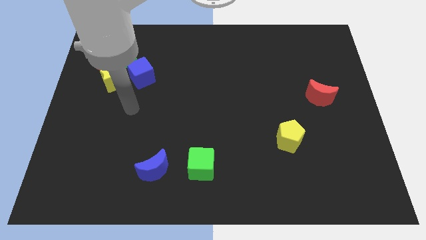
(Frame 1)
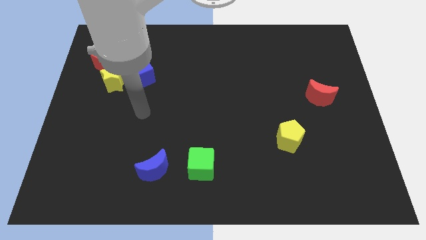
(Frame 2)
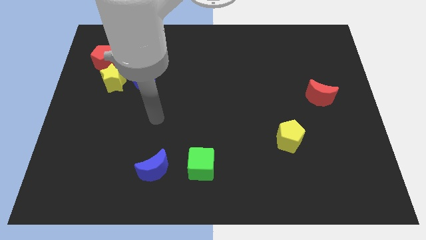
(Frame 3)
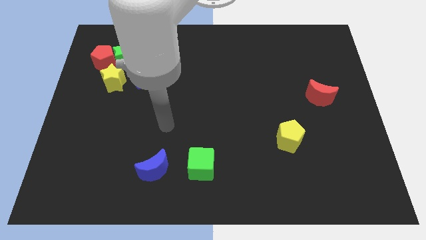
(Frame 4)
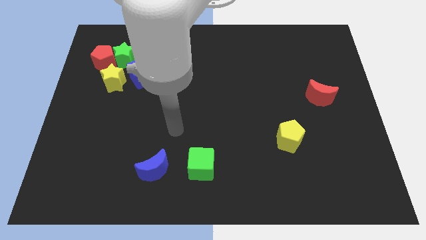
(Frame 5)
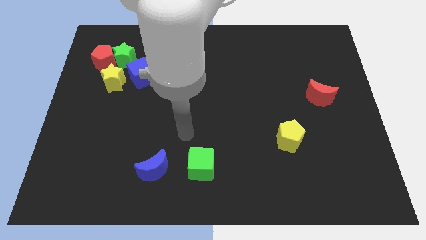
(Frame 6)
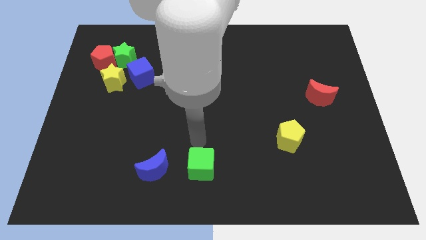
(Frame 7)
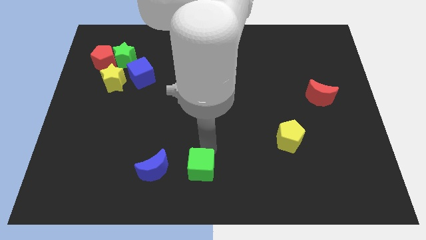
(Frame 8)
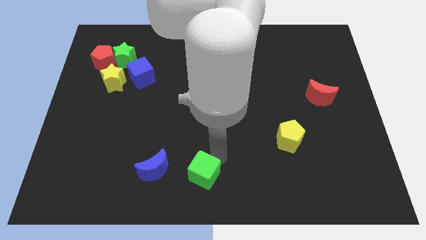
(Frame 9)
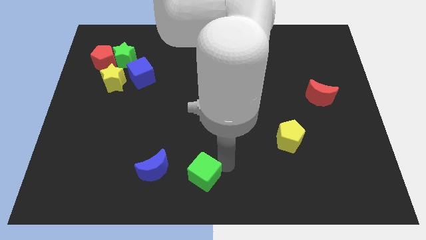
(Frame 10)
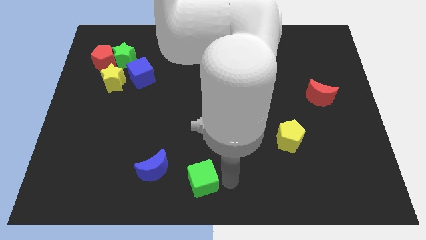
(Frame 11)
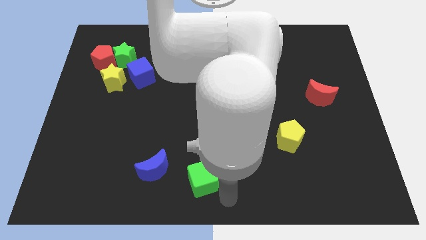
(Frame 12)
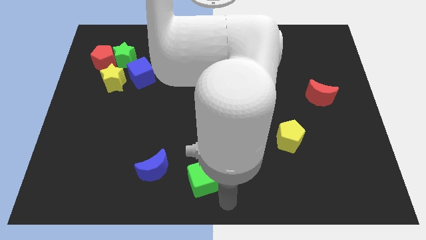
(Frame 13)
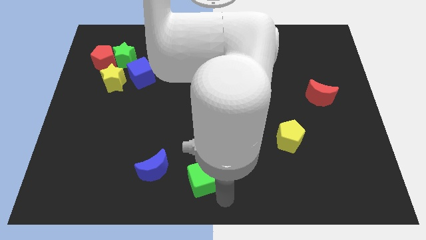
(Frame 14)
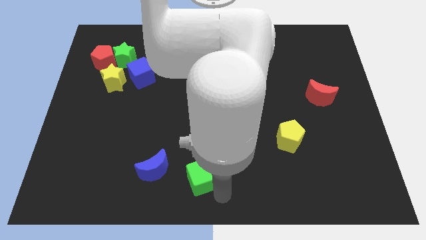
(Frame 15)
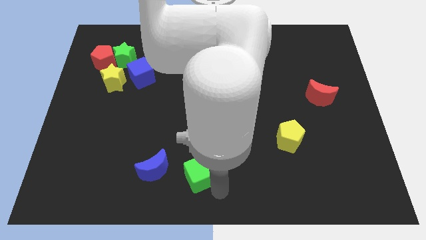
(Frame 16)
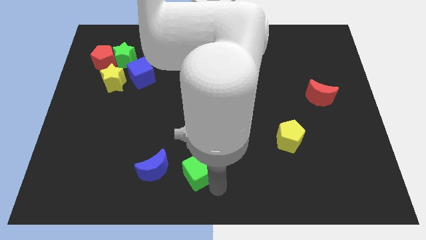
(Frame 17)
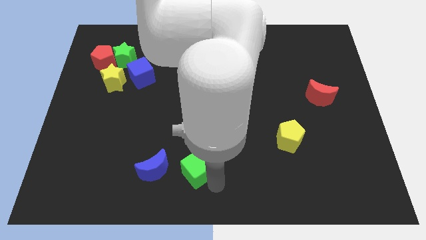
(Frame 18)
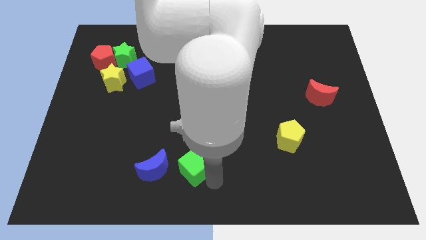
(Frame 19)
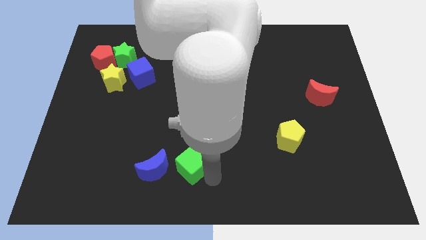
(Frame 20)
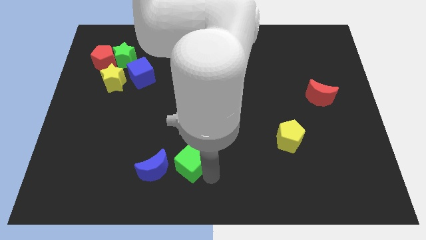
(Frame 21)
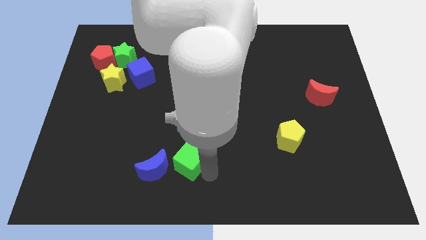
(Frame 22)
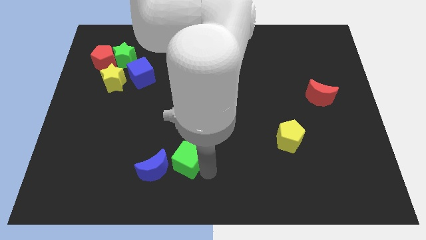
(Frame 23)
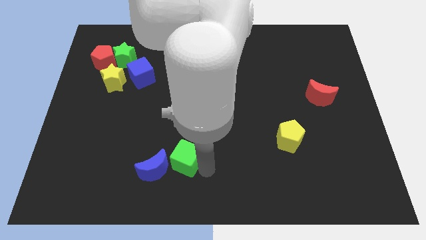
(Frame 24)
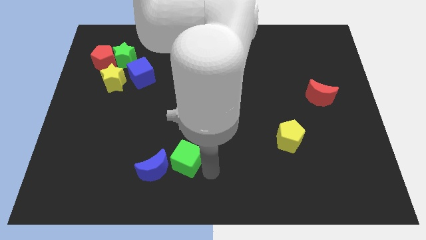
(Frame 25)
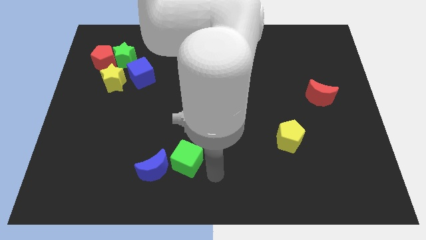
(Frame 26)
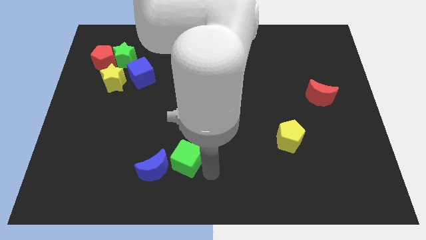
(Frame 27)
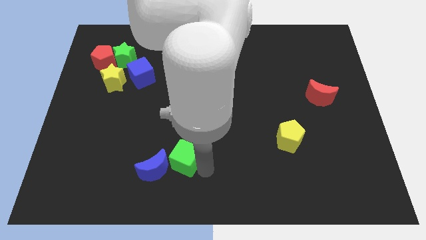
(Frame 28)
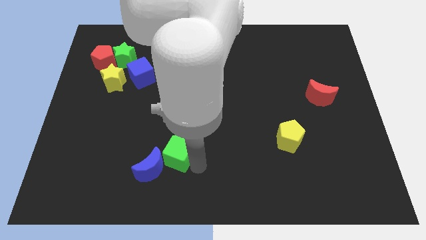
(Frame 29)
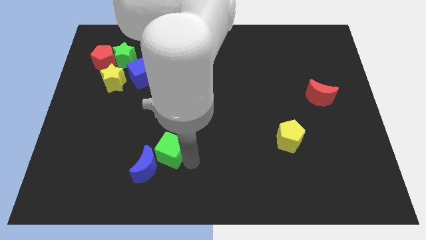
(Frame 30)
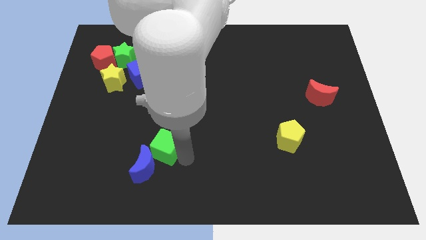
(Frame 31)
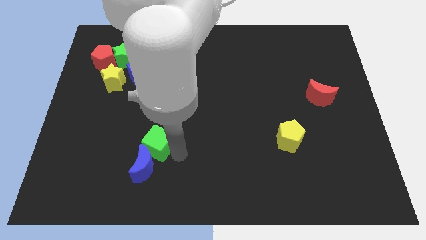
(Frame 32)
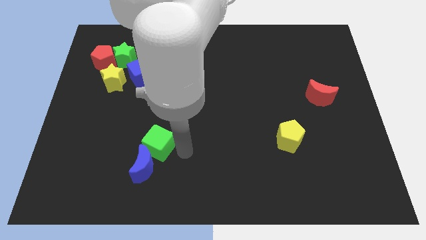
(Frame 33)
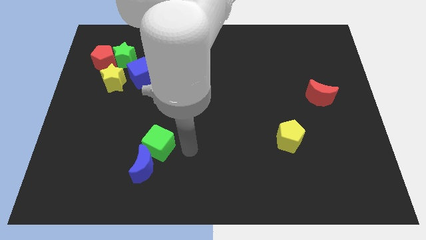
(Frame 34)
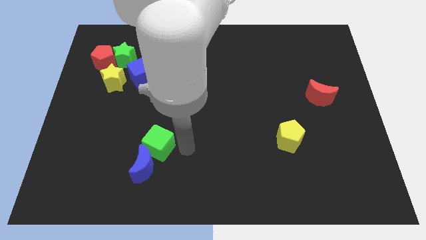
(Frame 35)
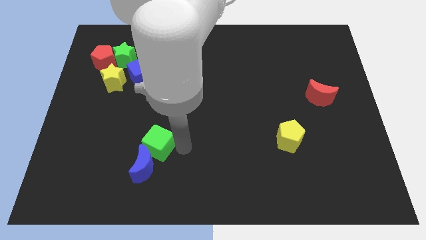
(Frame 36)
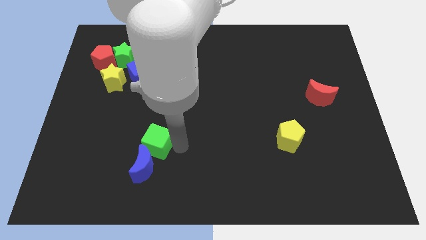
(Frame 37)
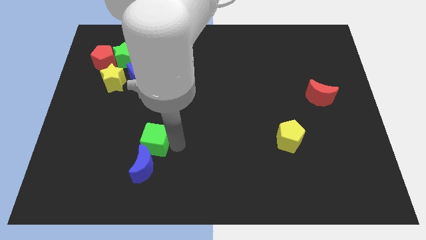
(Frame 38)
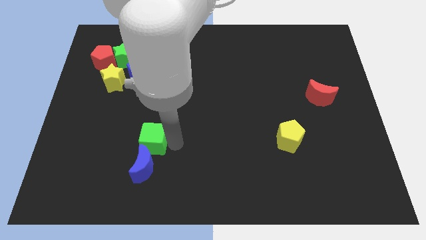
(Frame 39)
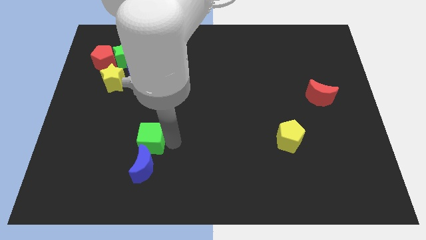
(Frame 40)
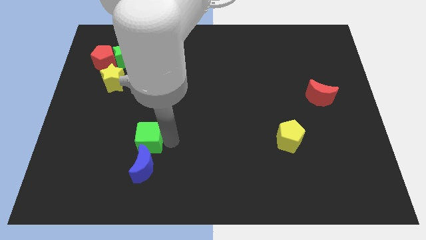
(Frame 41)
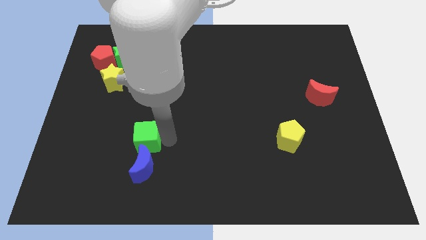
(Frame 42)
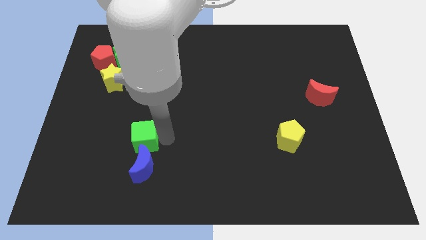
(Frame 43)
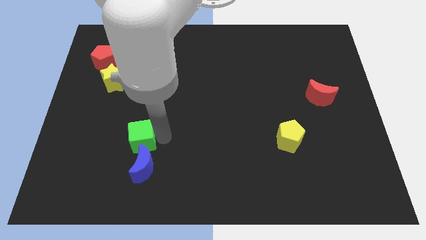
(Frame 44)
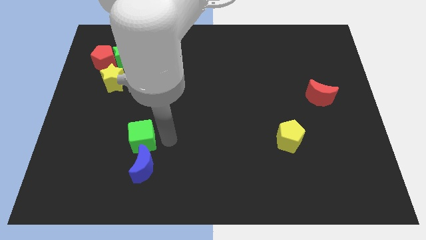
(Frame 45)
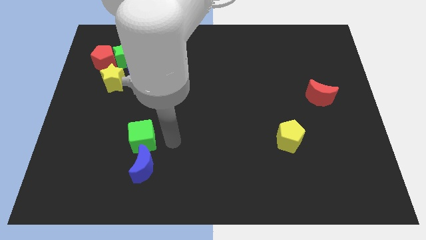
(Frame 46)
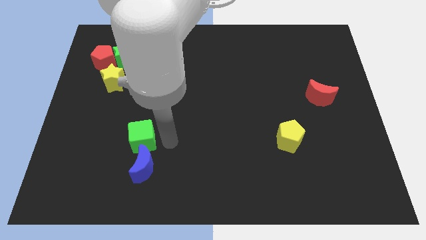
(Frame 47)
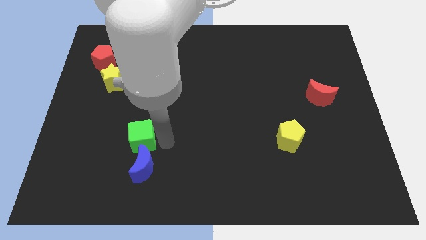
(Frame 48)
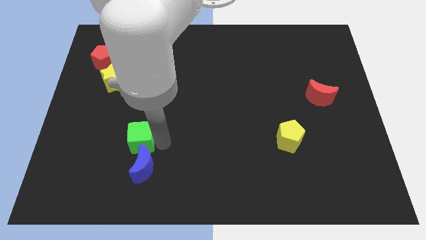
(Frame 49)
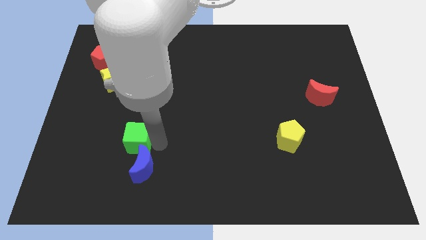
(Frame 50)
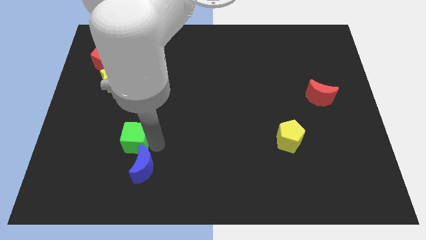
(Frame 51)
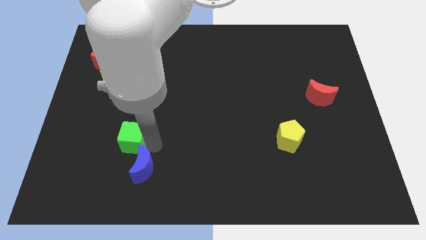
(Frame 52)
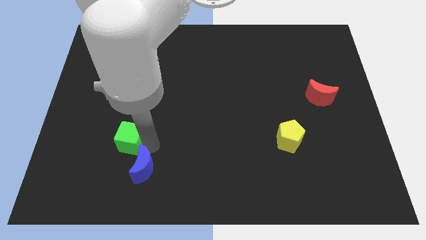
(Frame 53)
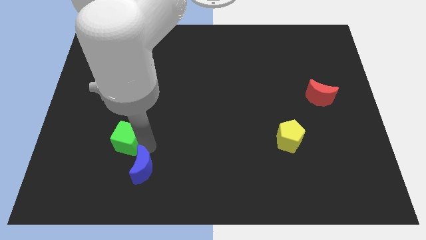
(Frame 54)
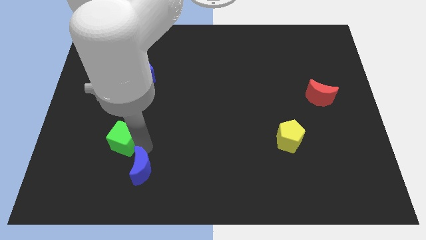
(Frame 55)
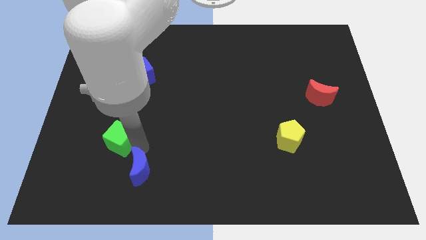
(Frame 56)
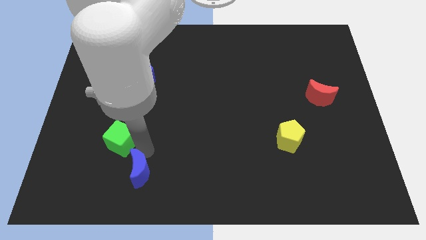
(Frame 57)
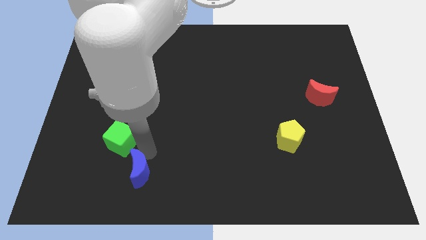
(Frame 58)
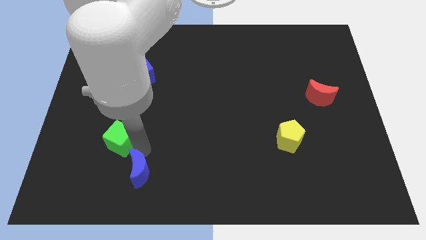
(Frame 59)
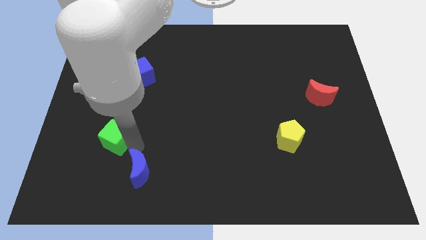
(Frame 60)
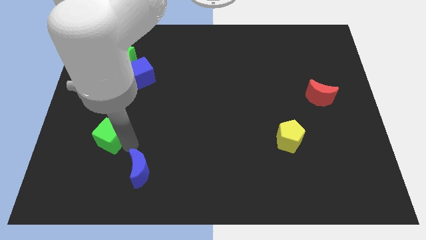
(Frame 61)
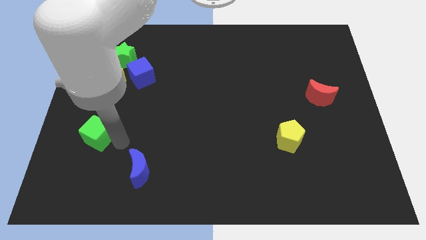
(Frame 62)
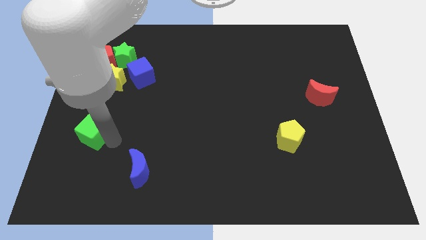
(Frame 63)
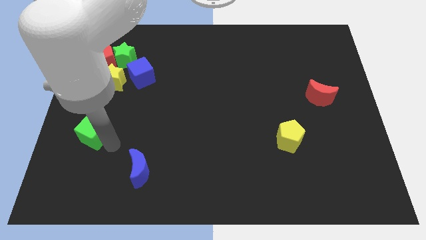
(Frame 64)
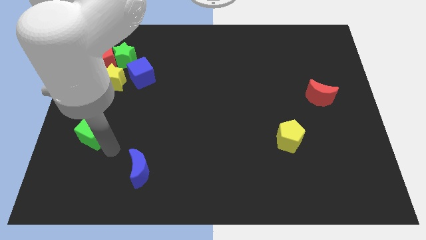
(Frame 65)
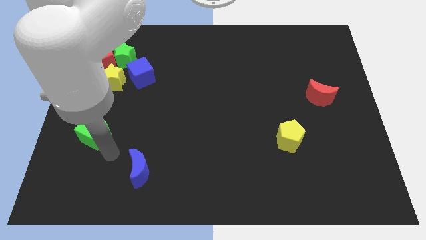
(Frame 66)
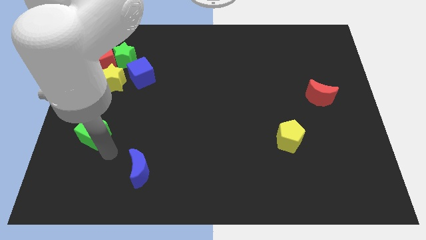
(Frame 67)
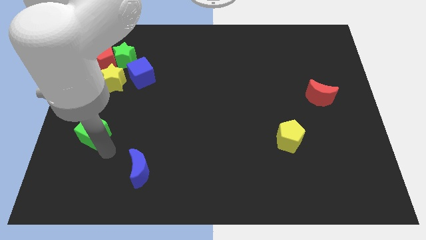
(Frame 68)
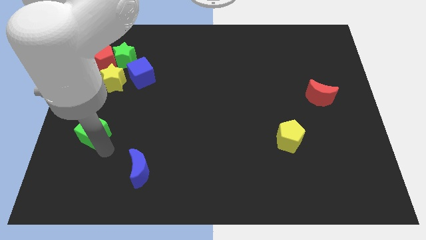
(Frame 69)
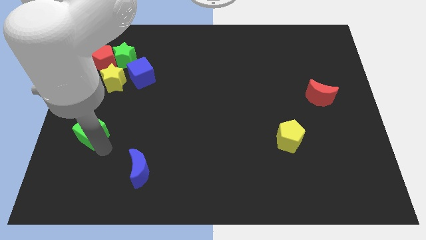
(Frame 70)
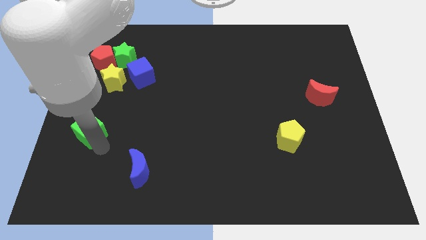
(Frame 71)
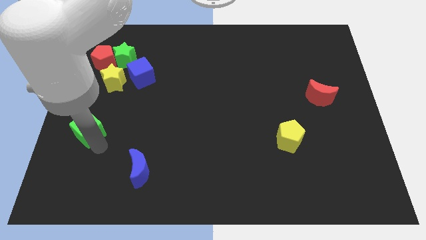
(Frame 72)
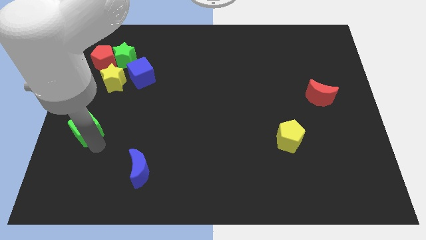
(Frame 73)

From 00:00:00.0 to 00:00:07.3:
push the green cube to the left side
